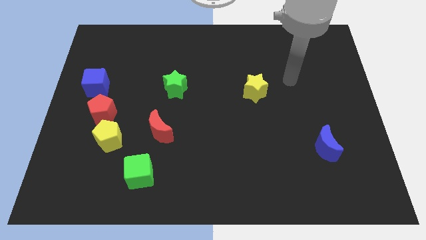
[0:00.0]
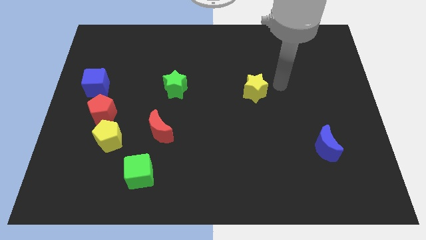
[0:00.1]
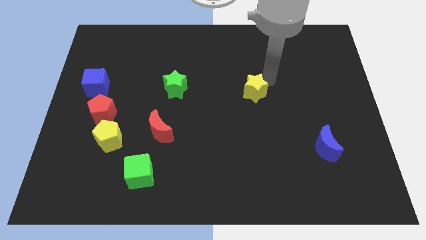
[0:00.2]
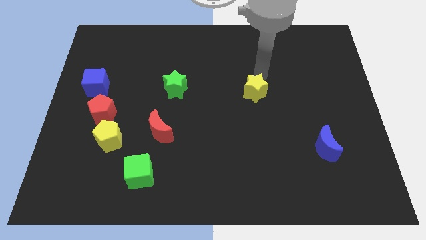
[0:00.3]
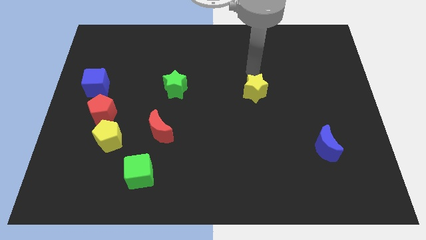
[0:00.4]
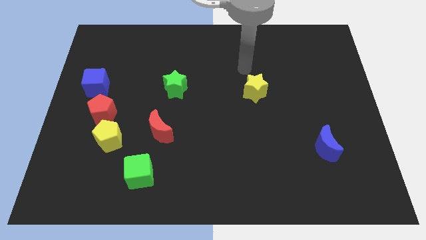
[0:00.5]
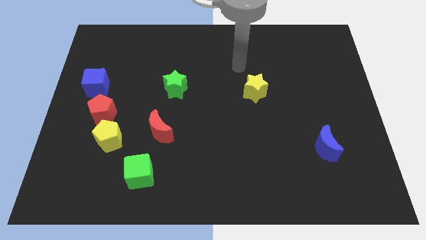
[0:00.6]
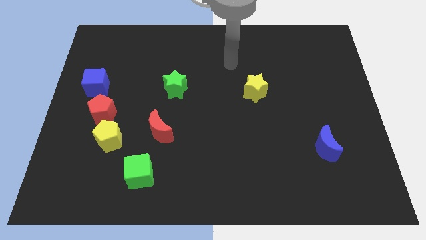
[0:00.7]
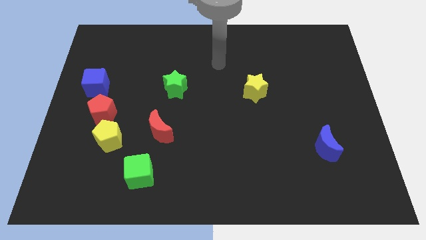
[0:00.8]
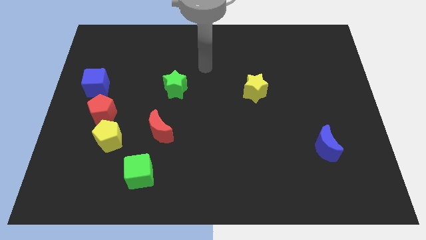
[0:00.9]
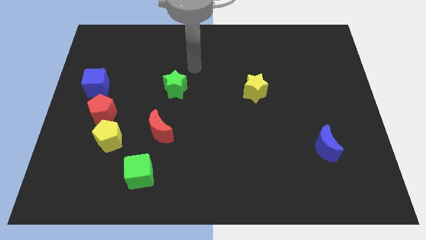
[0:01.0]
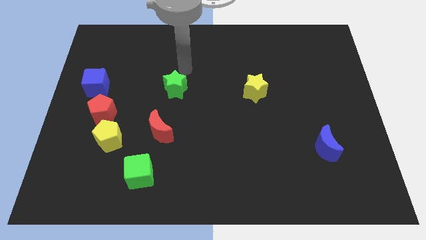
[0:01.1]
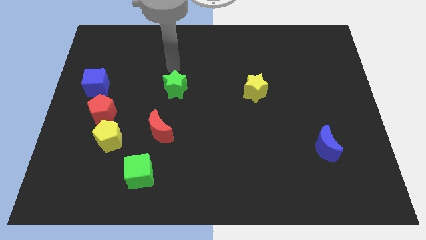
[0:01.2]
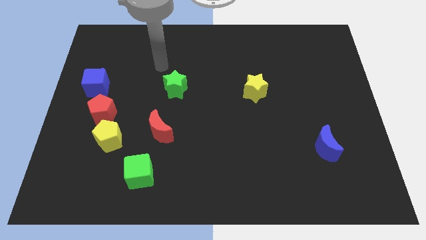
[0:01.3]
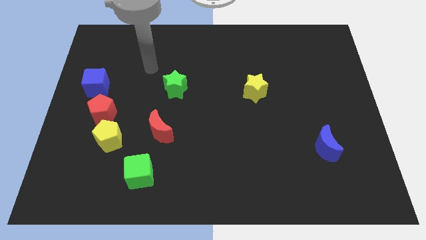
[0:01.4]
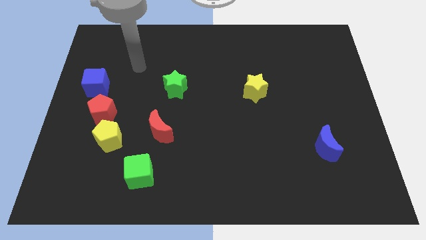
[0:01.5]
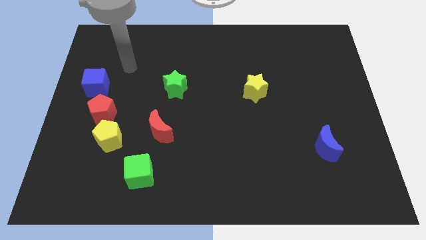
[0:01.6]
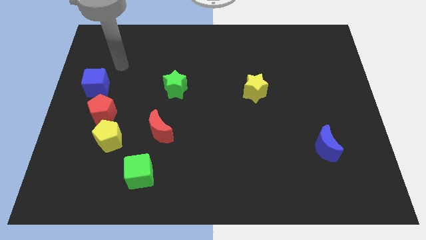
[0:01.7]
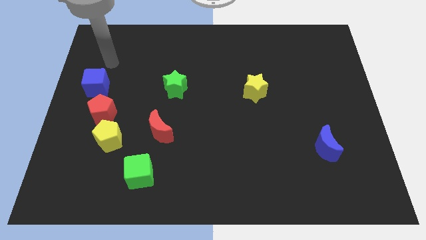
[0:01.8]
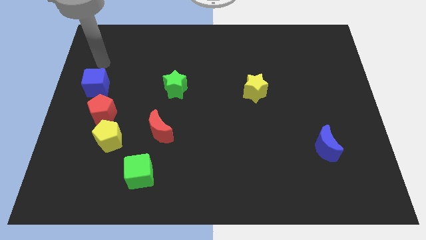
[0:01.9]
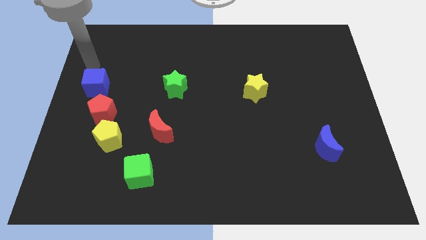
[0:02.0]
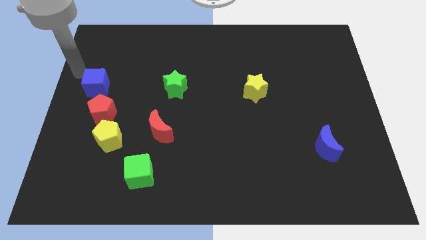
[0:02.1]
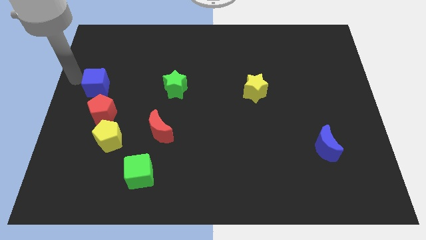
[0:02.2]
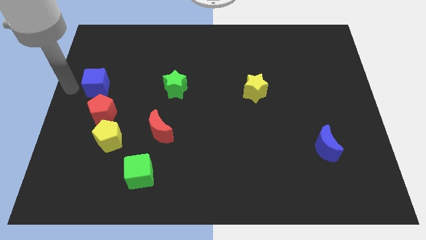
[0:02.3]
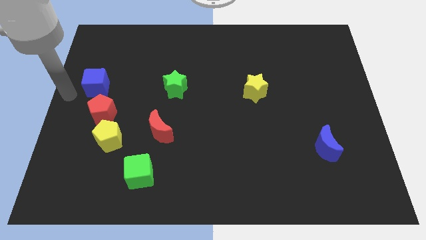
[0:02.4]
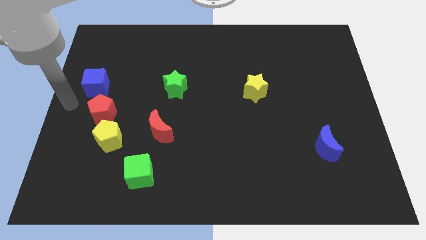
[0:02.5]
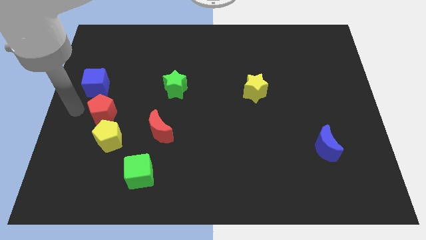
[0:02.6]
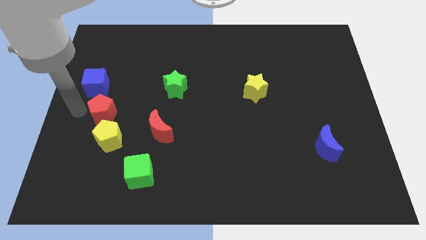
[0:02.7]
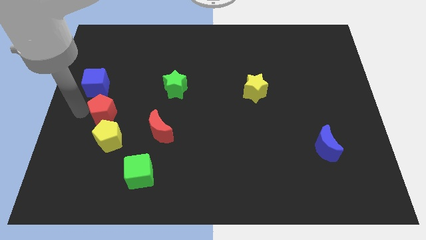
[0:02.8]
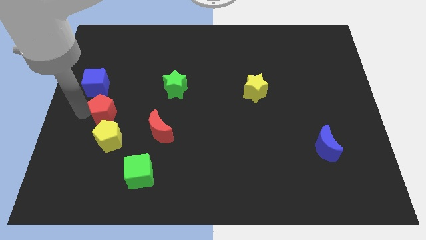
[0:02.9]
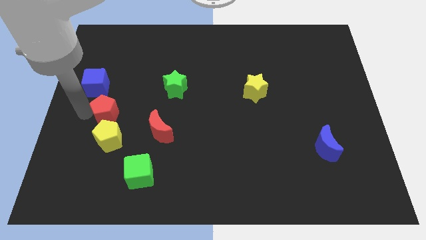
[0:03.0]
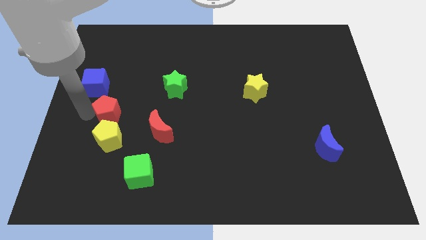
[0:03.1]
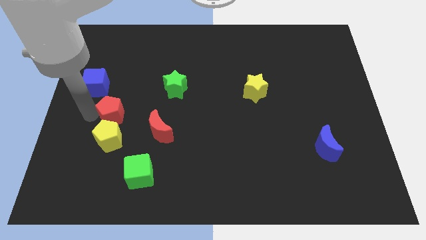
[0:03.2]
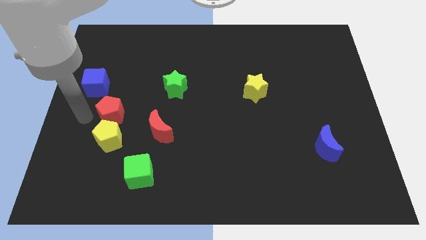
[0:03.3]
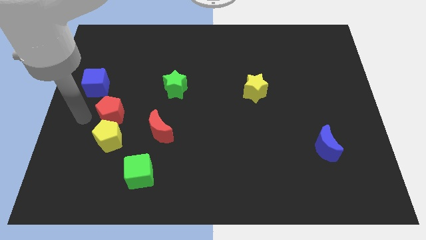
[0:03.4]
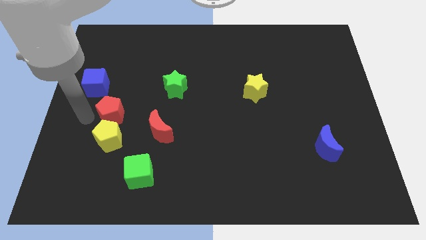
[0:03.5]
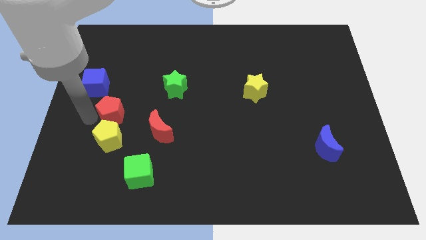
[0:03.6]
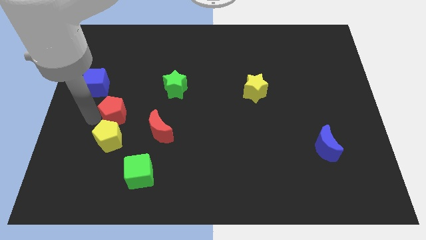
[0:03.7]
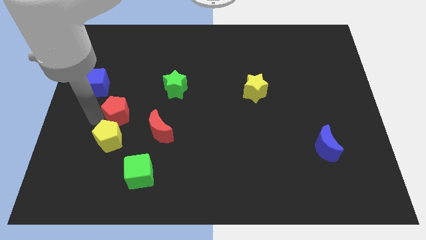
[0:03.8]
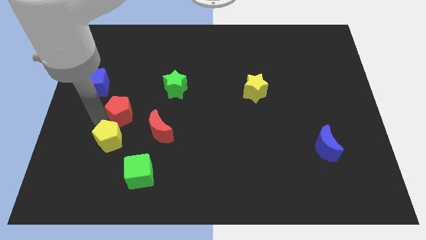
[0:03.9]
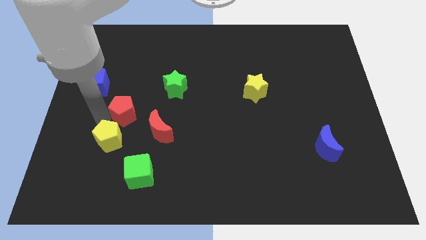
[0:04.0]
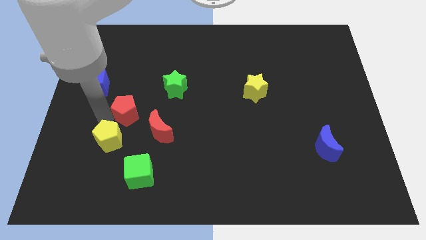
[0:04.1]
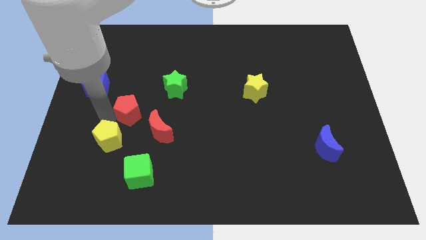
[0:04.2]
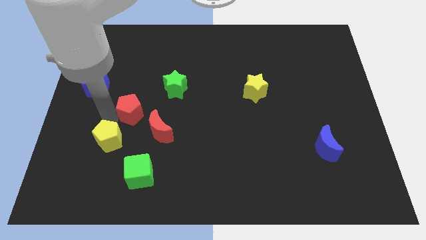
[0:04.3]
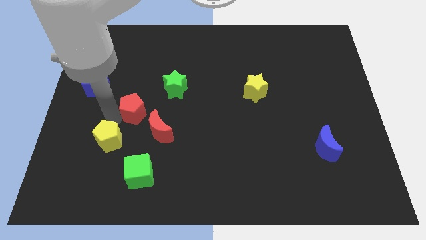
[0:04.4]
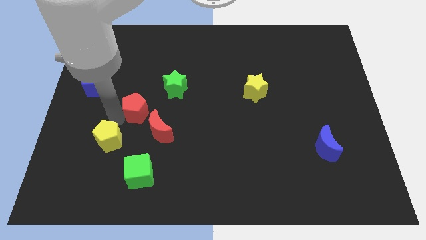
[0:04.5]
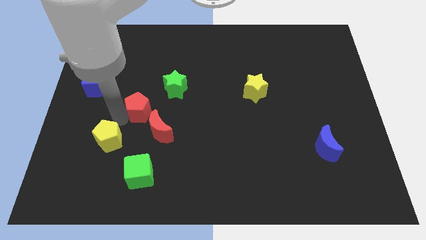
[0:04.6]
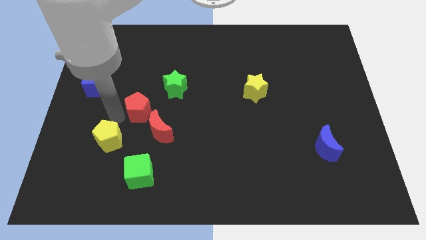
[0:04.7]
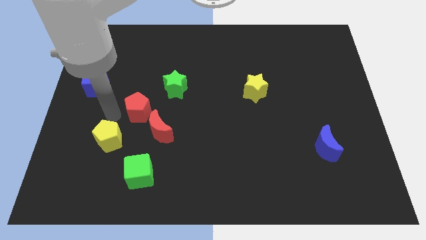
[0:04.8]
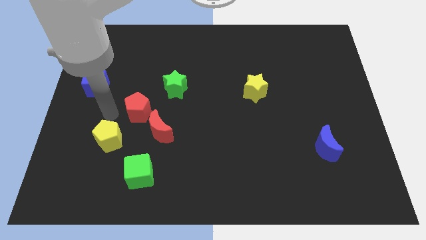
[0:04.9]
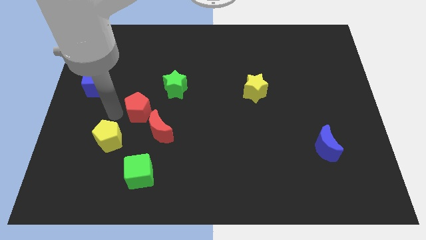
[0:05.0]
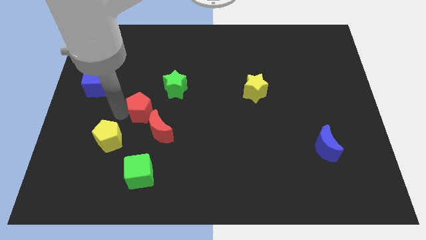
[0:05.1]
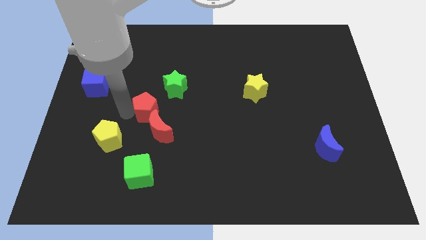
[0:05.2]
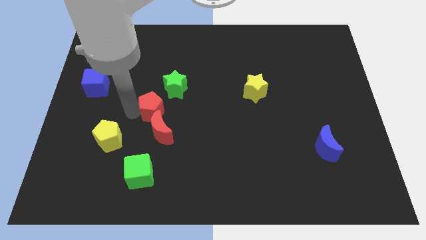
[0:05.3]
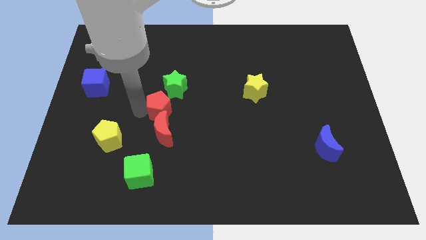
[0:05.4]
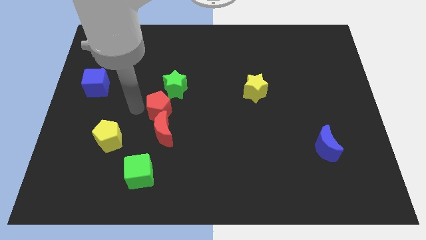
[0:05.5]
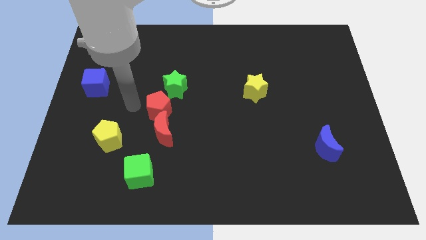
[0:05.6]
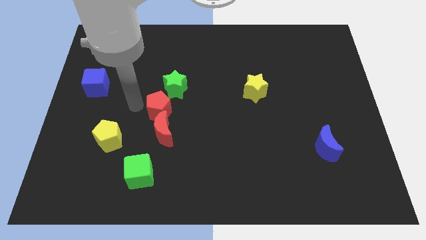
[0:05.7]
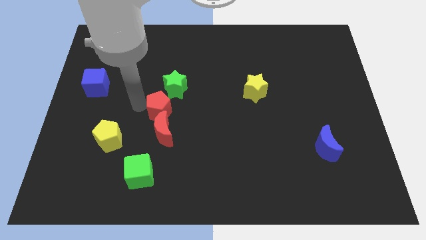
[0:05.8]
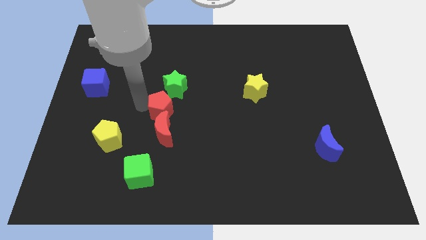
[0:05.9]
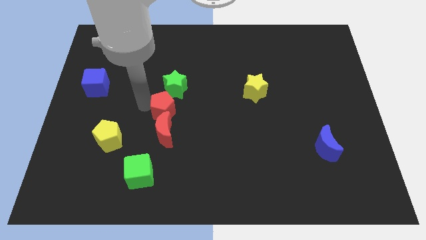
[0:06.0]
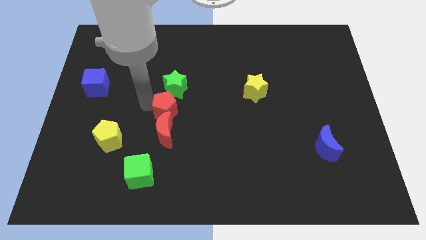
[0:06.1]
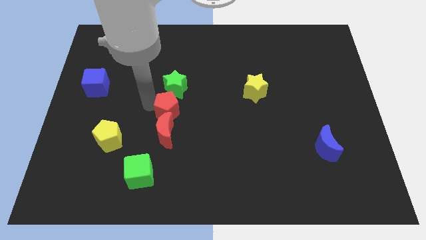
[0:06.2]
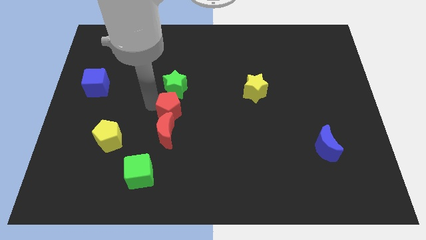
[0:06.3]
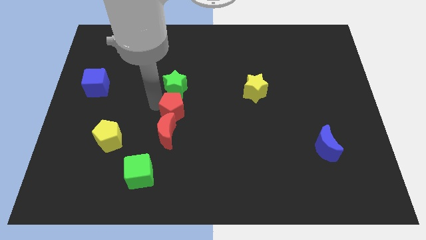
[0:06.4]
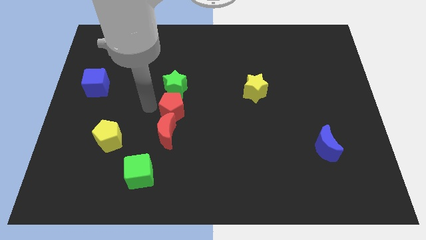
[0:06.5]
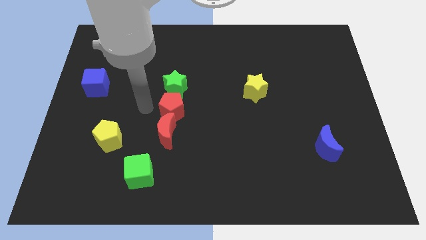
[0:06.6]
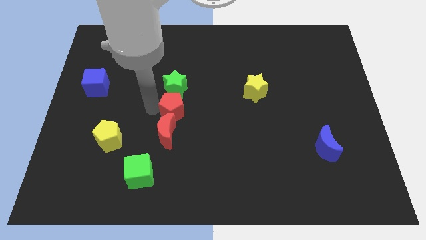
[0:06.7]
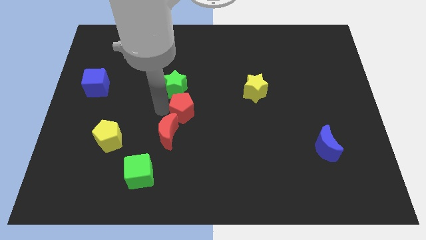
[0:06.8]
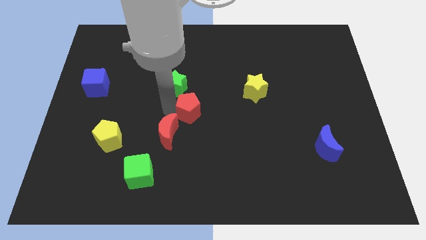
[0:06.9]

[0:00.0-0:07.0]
push the red pentagon right

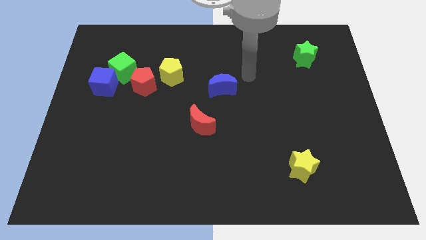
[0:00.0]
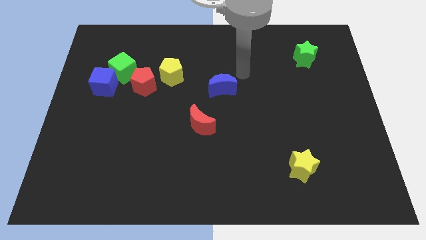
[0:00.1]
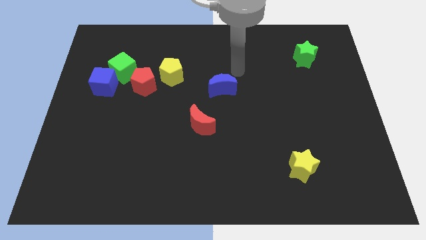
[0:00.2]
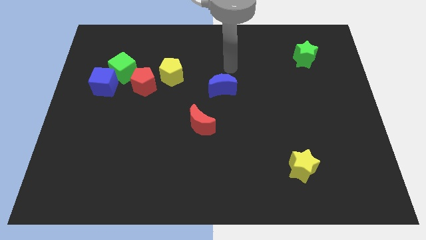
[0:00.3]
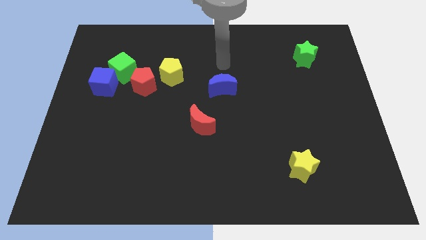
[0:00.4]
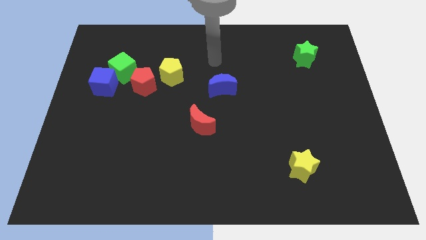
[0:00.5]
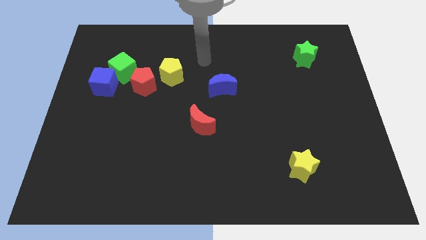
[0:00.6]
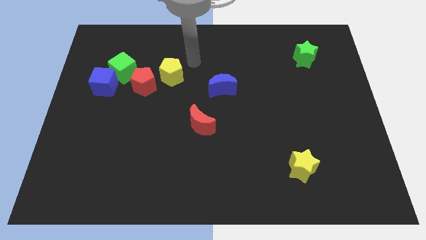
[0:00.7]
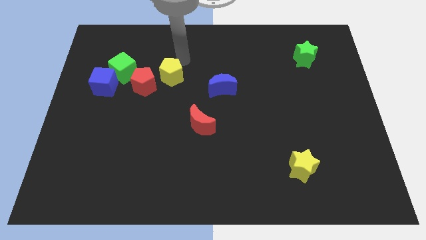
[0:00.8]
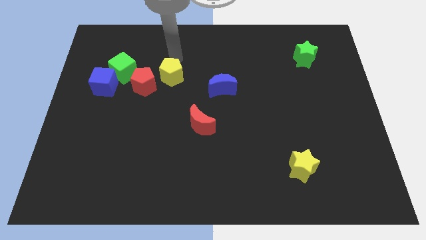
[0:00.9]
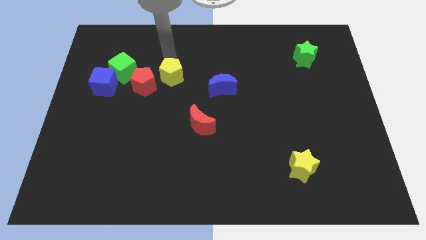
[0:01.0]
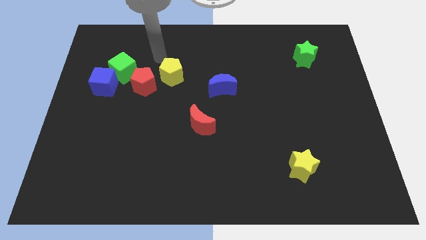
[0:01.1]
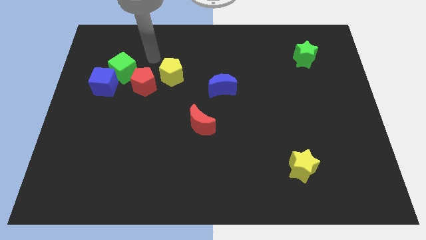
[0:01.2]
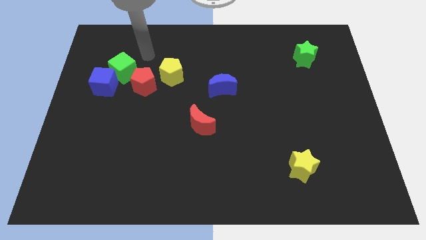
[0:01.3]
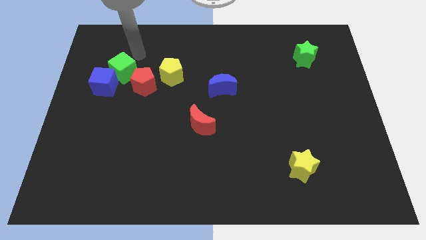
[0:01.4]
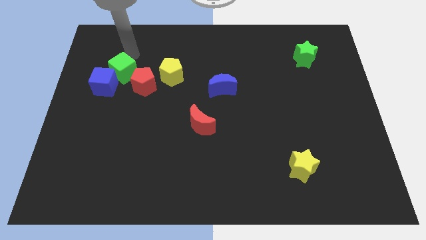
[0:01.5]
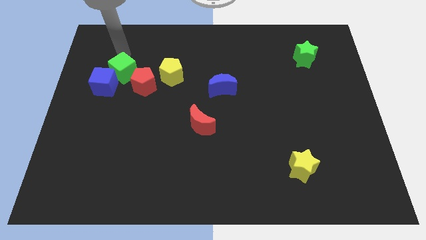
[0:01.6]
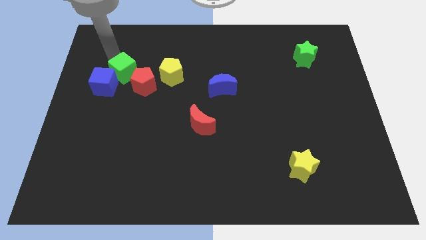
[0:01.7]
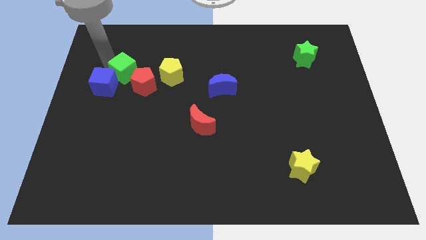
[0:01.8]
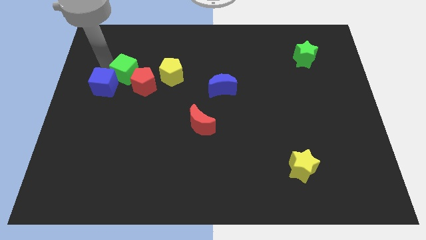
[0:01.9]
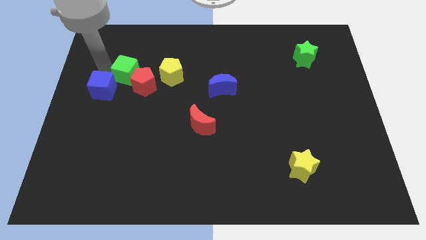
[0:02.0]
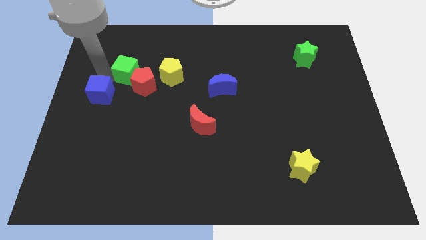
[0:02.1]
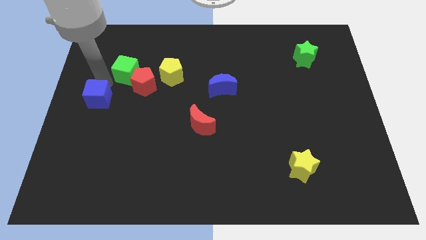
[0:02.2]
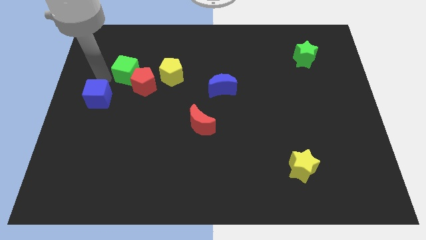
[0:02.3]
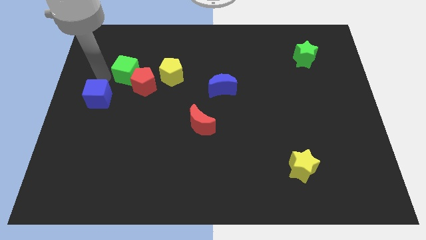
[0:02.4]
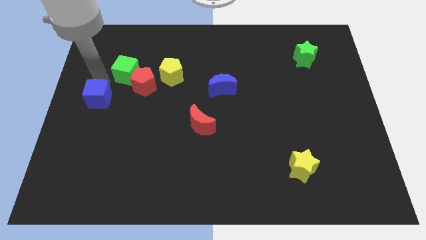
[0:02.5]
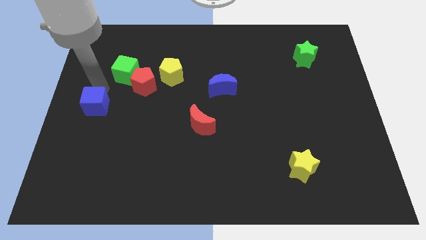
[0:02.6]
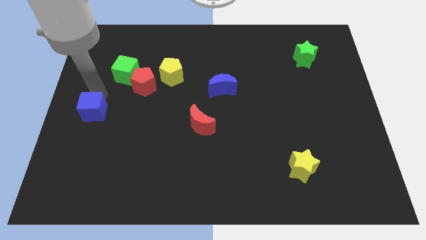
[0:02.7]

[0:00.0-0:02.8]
slightly push the blue cube downwards
